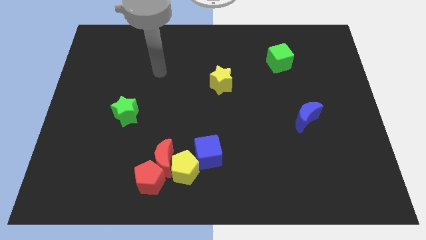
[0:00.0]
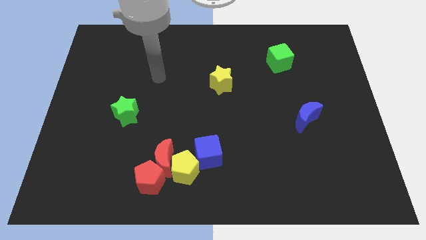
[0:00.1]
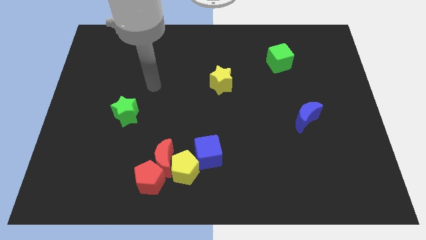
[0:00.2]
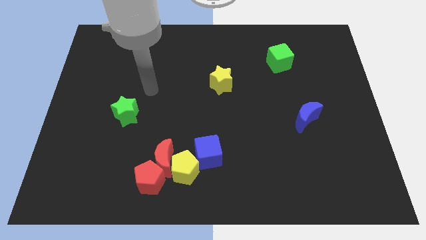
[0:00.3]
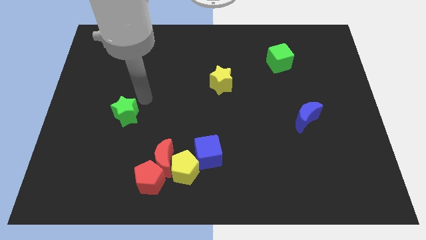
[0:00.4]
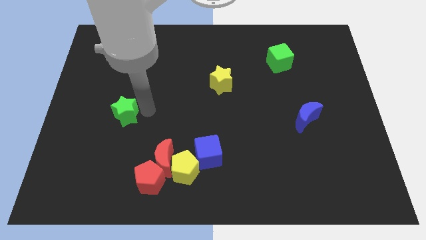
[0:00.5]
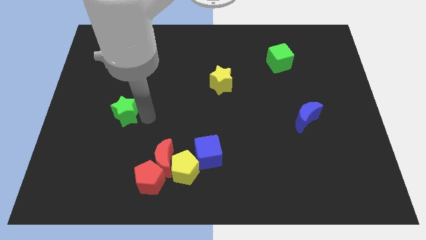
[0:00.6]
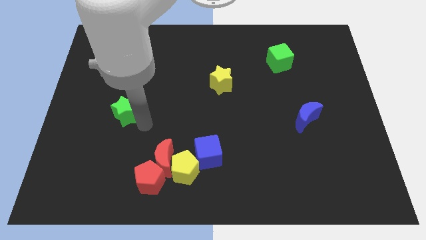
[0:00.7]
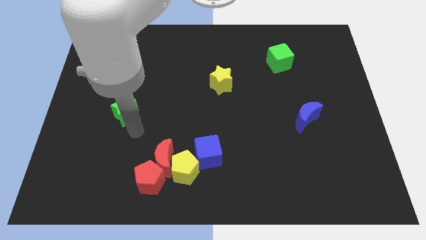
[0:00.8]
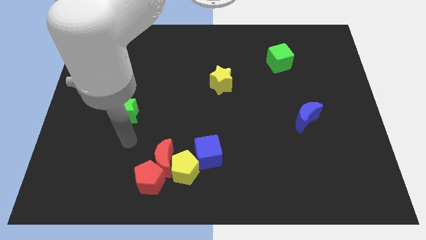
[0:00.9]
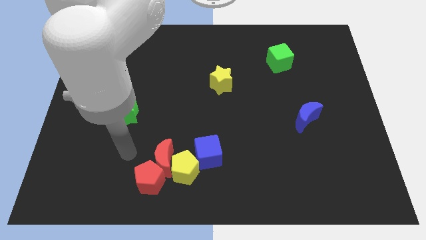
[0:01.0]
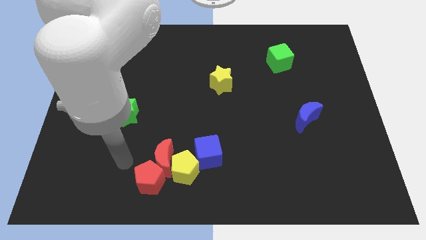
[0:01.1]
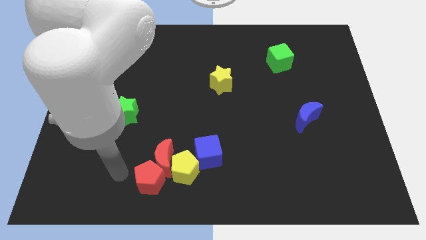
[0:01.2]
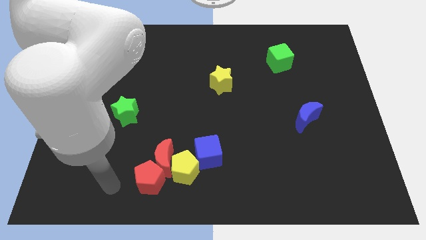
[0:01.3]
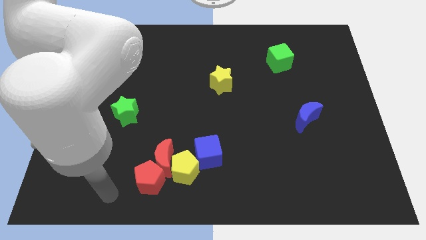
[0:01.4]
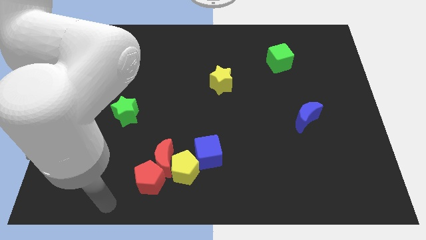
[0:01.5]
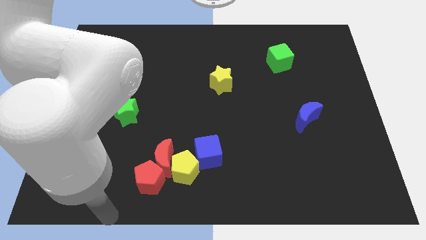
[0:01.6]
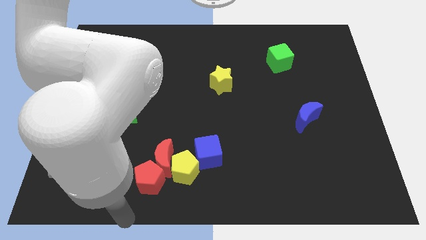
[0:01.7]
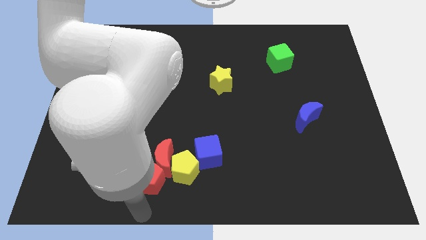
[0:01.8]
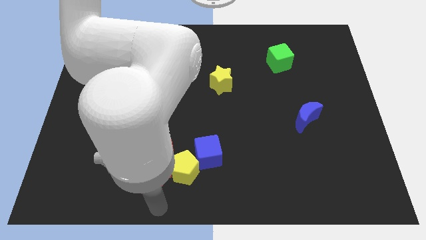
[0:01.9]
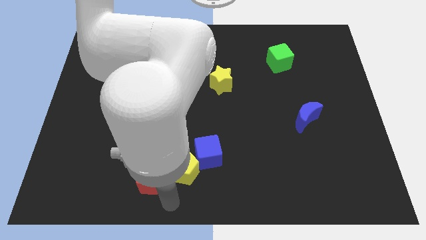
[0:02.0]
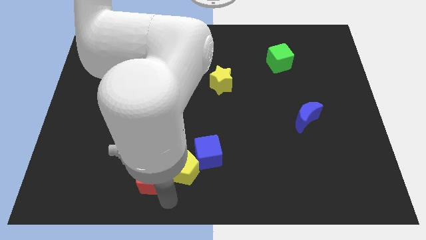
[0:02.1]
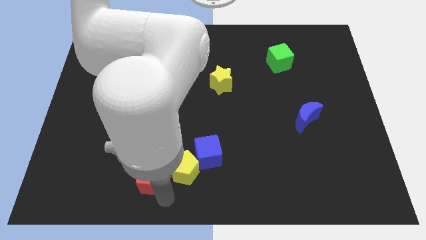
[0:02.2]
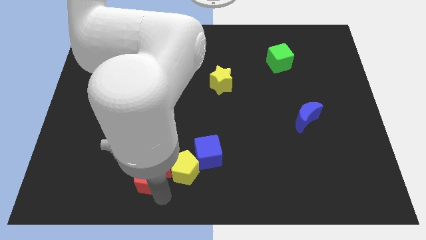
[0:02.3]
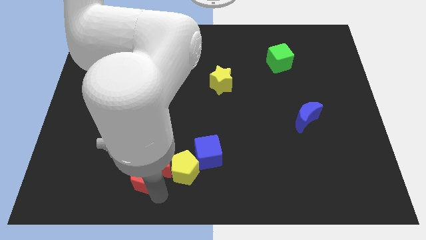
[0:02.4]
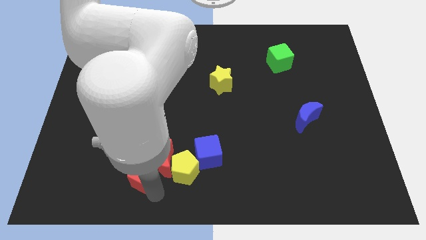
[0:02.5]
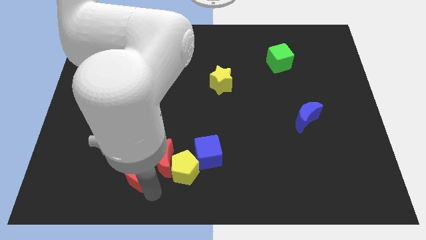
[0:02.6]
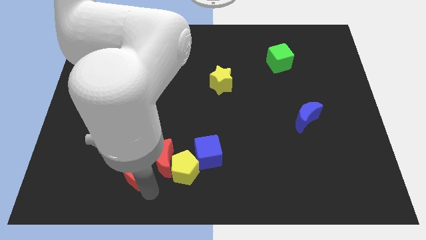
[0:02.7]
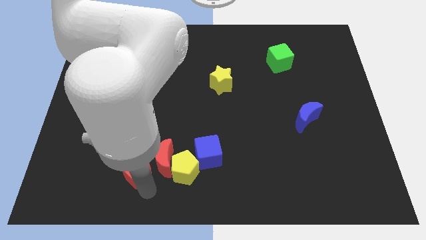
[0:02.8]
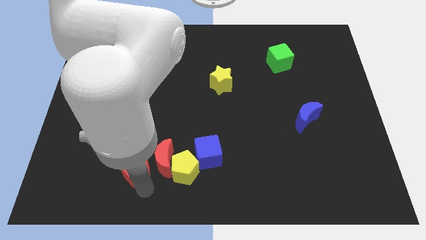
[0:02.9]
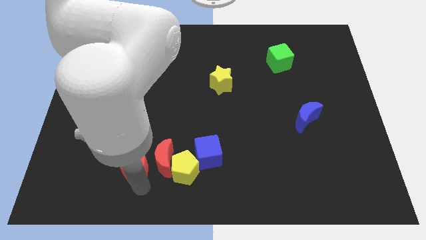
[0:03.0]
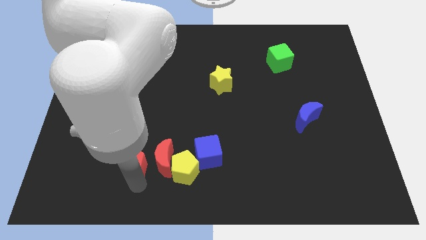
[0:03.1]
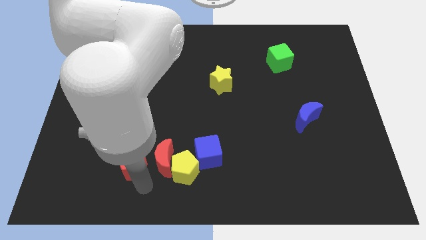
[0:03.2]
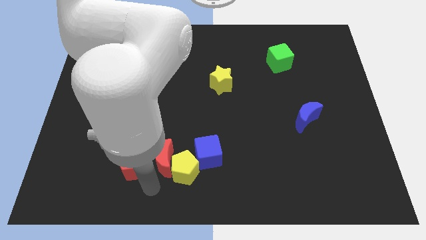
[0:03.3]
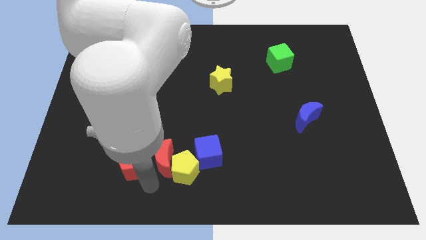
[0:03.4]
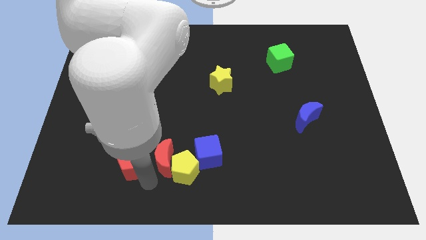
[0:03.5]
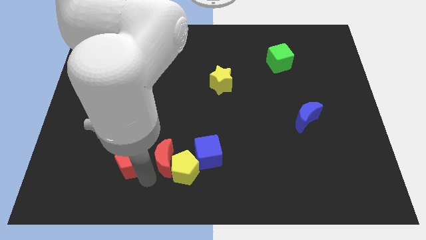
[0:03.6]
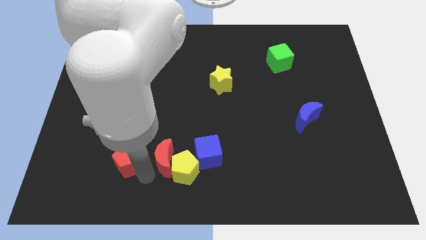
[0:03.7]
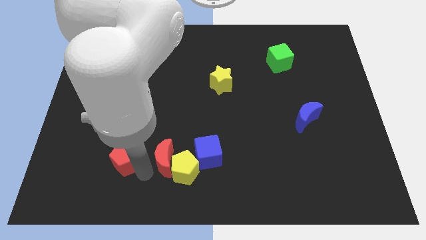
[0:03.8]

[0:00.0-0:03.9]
slide the red pentagon upwards and to the left diagonally a bit

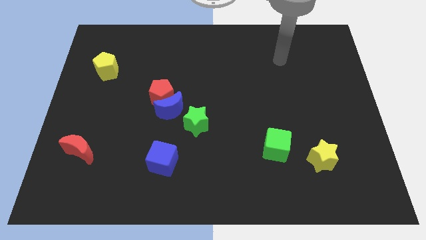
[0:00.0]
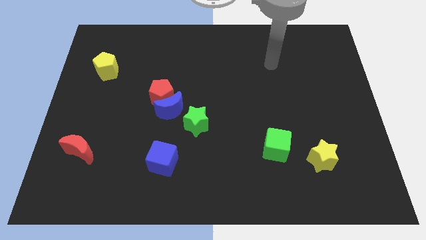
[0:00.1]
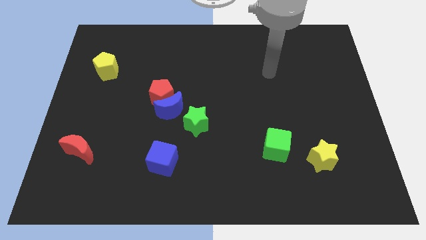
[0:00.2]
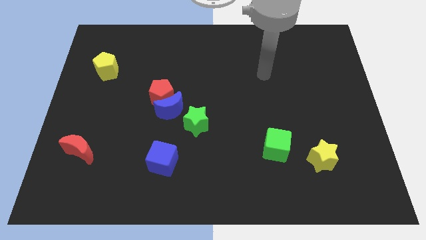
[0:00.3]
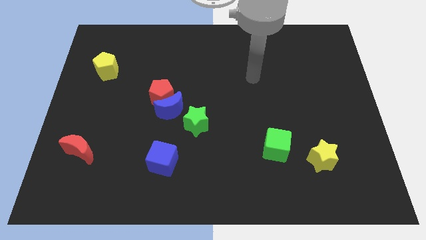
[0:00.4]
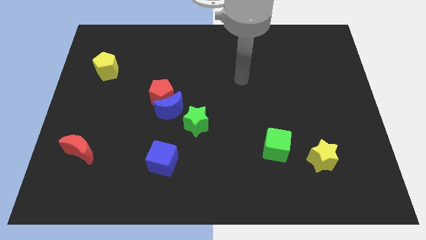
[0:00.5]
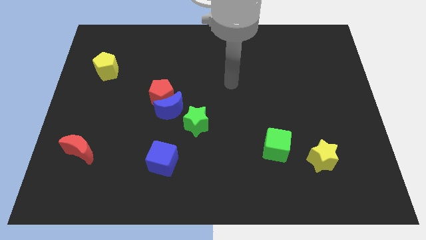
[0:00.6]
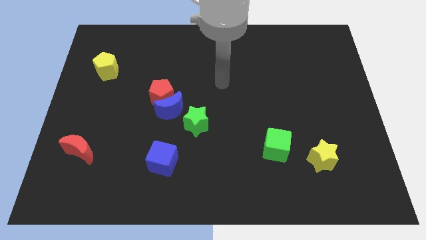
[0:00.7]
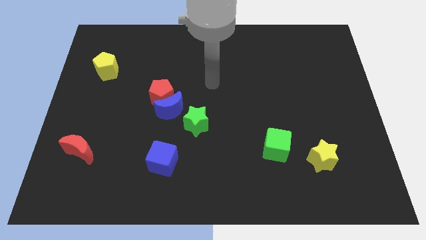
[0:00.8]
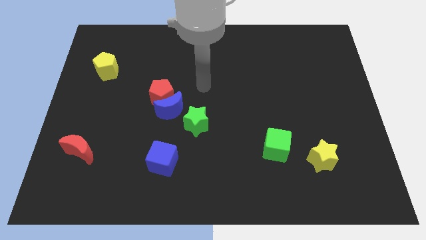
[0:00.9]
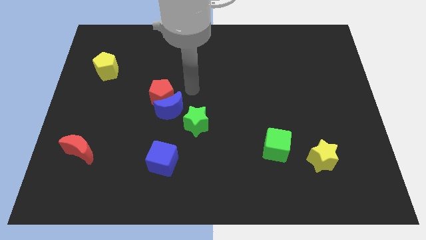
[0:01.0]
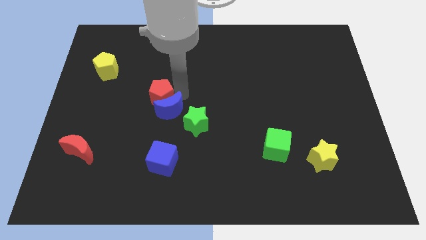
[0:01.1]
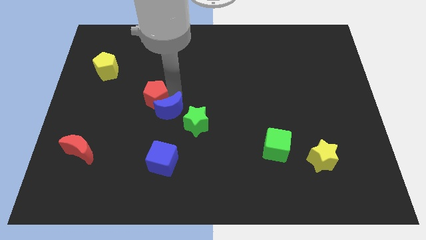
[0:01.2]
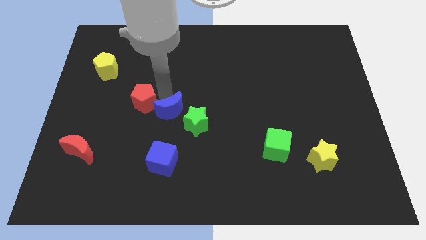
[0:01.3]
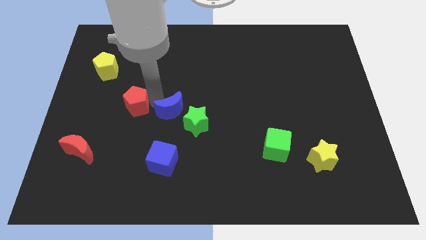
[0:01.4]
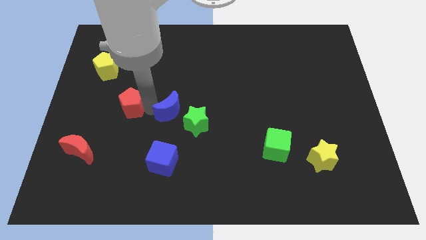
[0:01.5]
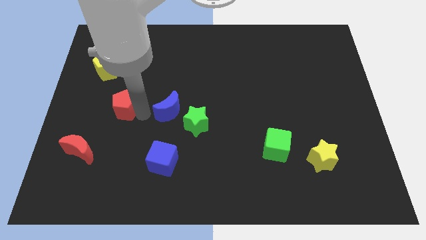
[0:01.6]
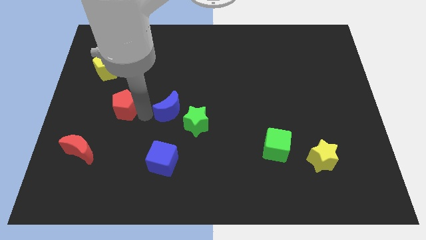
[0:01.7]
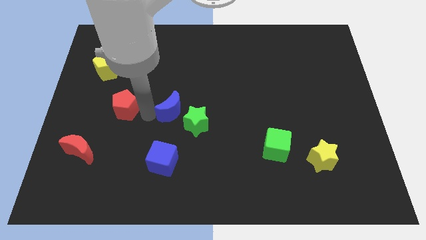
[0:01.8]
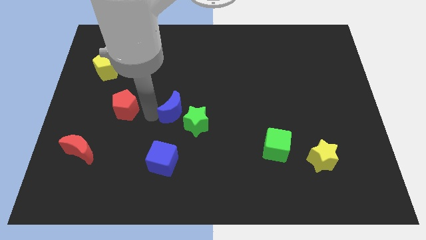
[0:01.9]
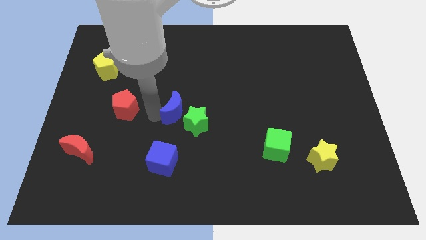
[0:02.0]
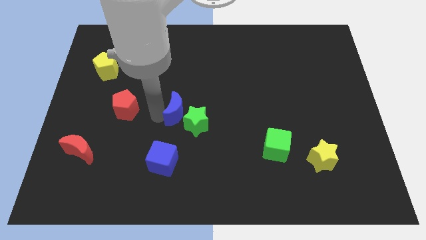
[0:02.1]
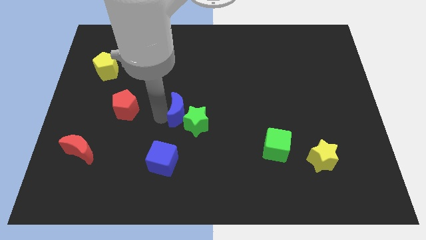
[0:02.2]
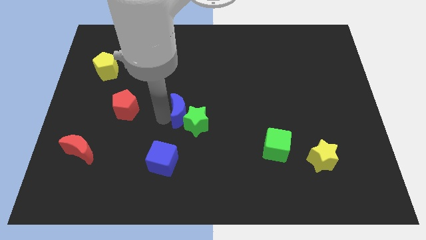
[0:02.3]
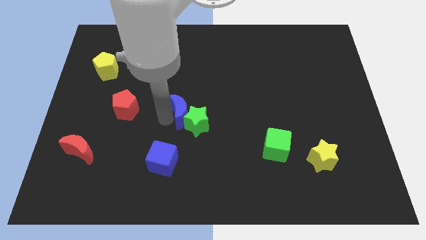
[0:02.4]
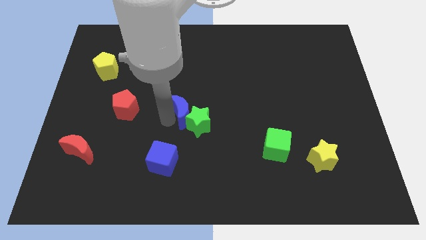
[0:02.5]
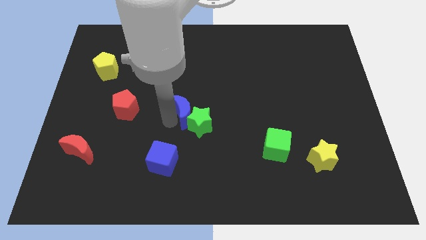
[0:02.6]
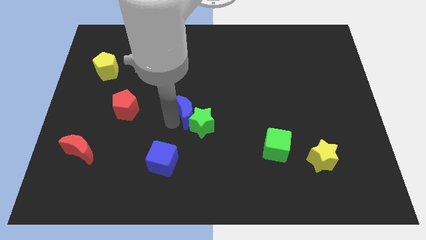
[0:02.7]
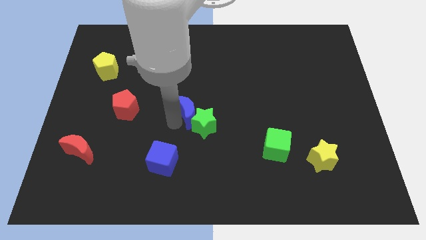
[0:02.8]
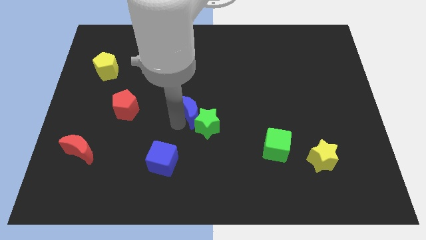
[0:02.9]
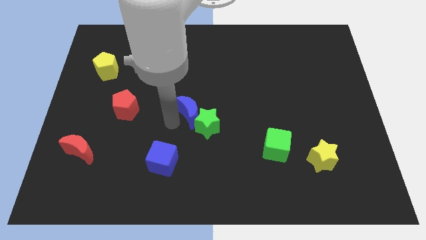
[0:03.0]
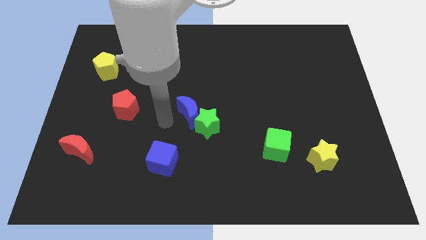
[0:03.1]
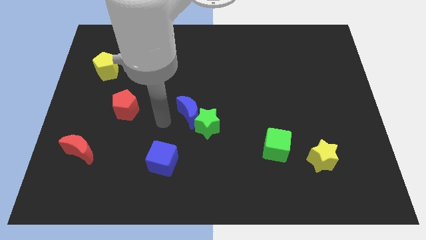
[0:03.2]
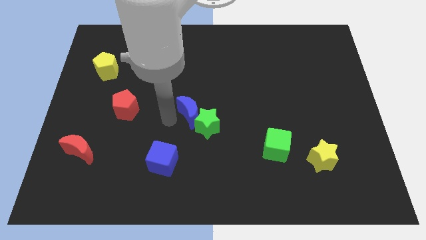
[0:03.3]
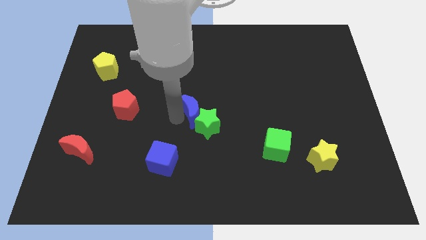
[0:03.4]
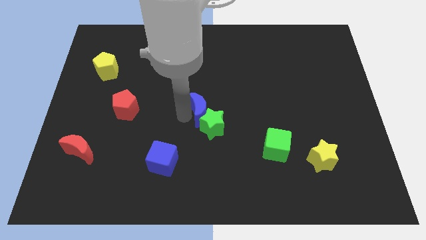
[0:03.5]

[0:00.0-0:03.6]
move the blue moon to the right a little

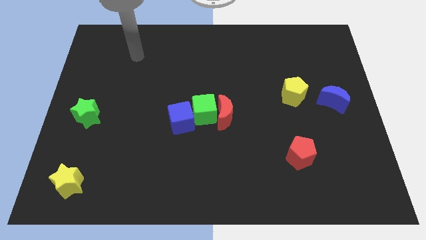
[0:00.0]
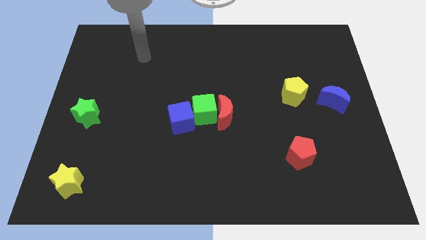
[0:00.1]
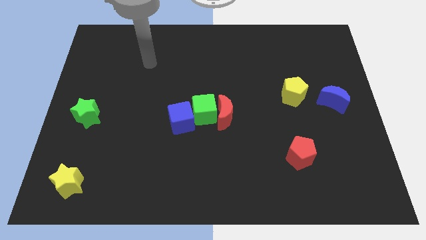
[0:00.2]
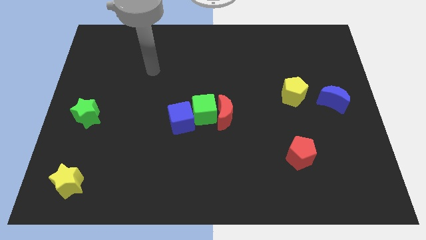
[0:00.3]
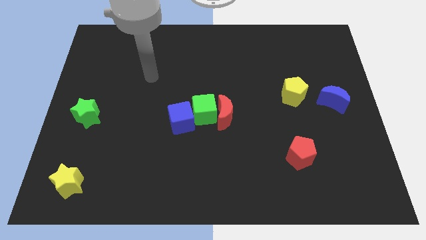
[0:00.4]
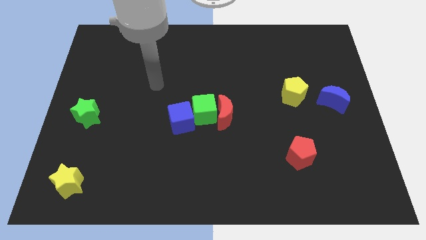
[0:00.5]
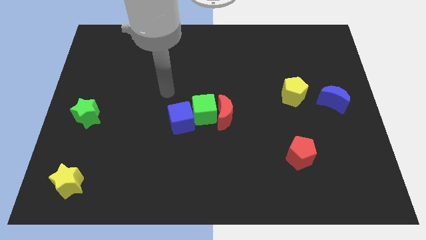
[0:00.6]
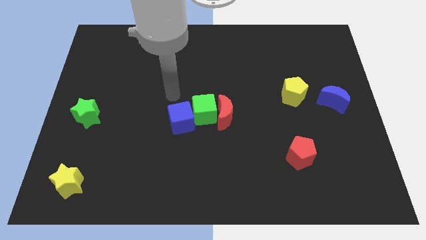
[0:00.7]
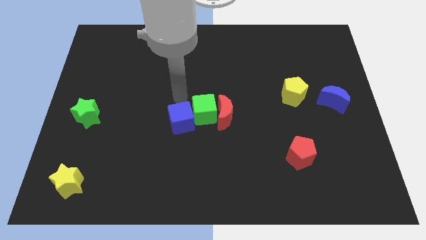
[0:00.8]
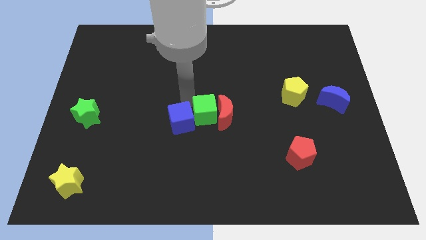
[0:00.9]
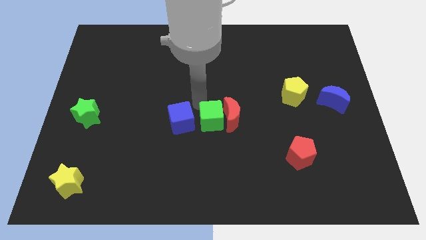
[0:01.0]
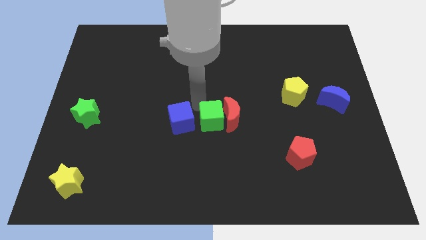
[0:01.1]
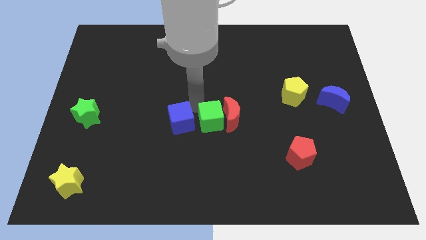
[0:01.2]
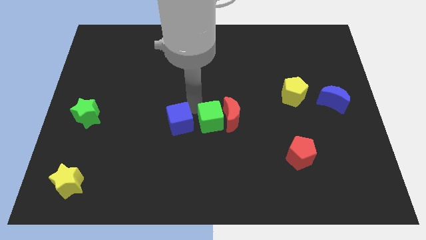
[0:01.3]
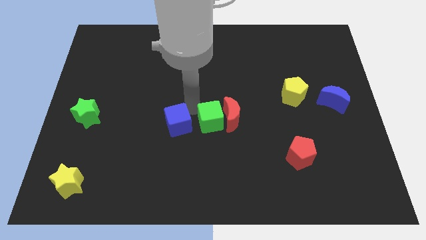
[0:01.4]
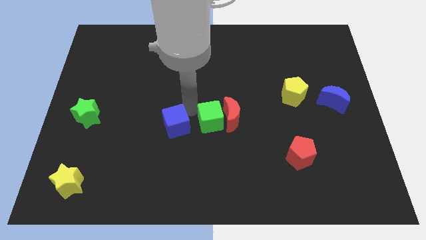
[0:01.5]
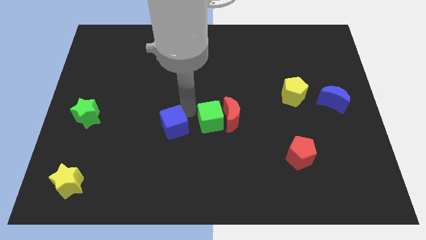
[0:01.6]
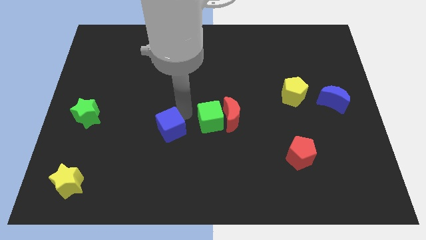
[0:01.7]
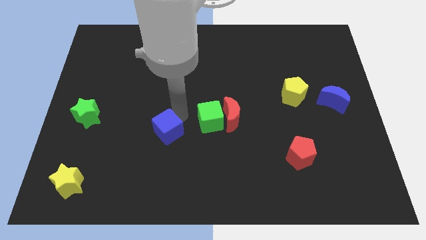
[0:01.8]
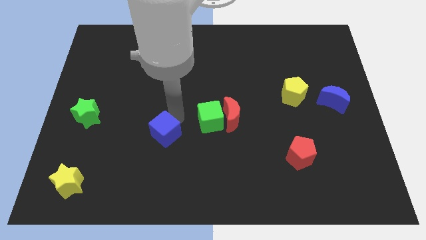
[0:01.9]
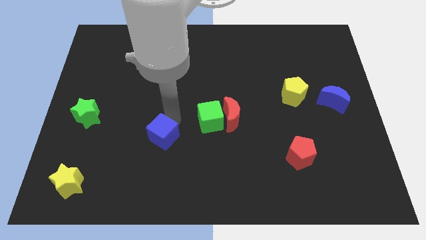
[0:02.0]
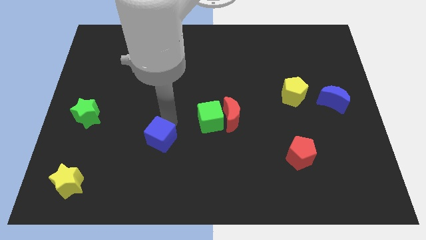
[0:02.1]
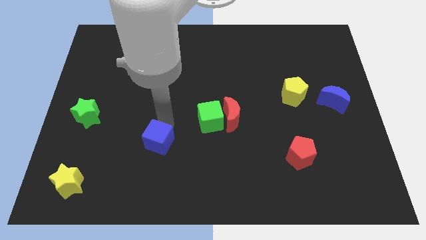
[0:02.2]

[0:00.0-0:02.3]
slightly move the blue cube down and then left
